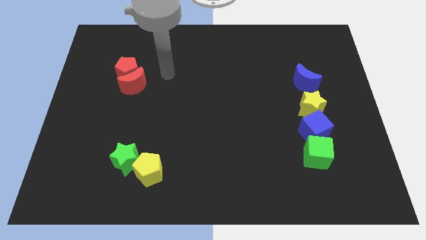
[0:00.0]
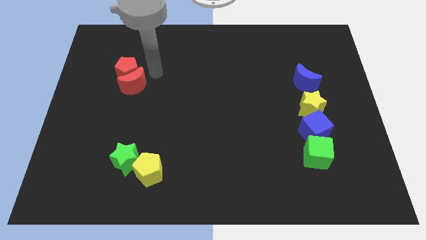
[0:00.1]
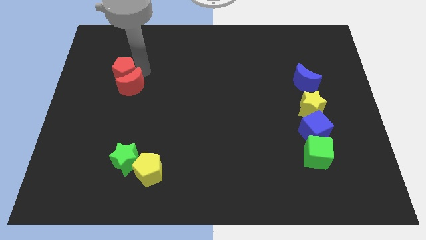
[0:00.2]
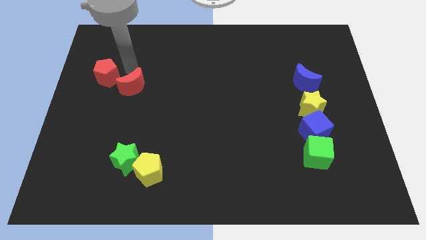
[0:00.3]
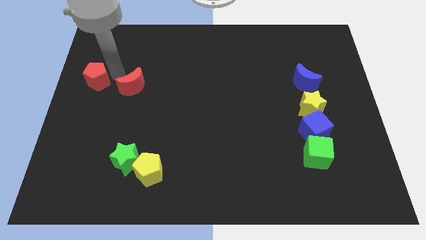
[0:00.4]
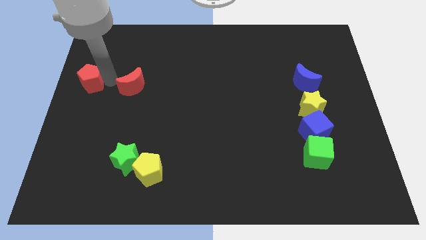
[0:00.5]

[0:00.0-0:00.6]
move the red moon away from the red pentagon

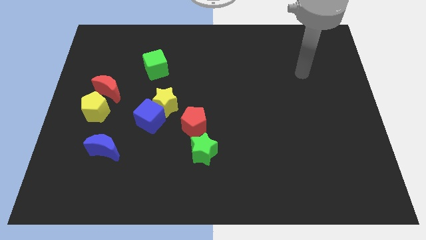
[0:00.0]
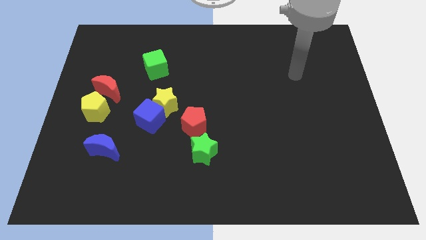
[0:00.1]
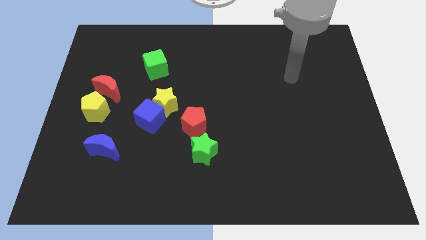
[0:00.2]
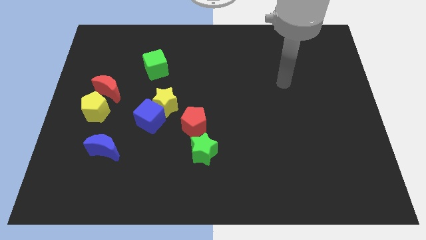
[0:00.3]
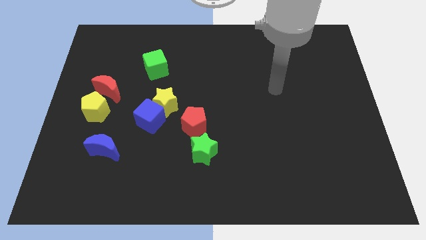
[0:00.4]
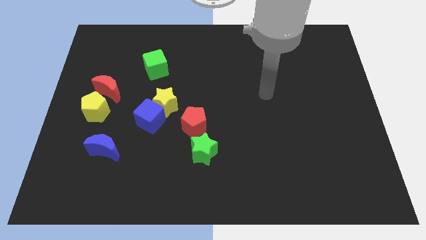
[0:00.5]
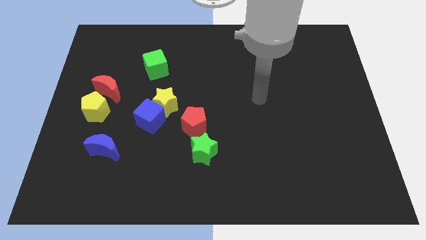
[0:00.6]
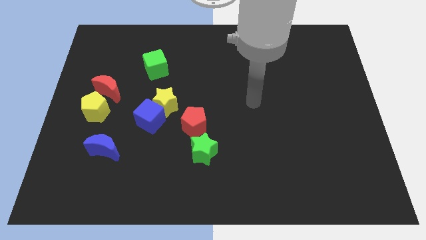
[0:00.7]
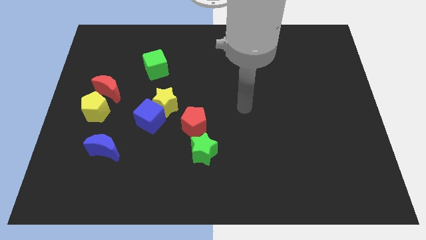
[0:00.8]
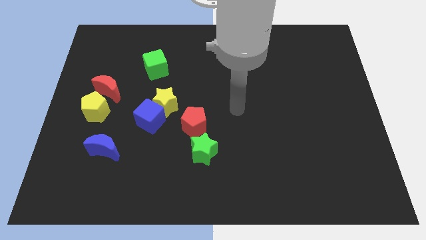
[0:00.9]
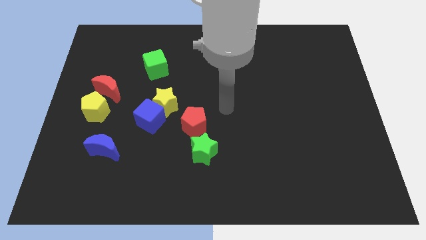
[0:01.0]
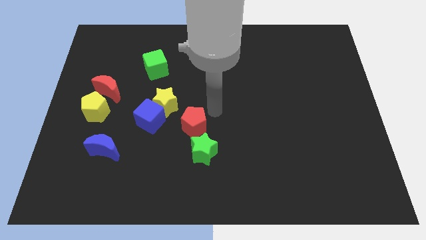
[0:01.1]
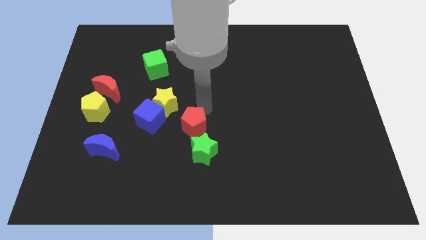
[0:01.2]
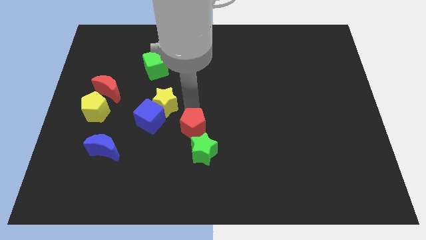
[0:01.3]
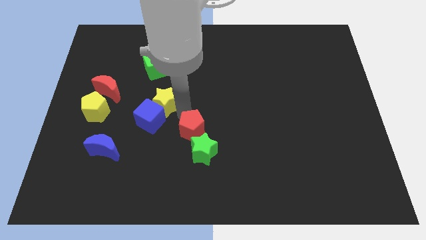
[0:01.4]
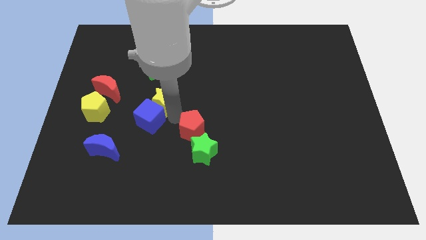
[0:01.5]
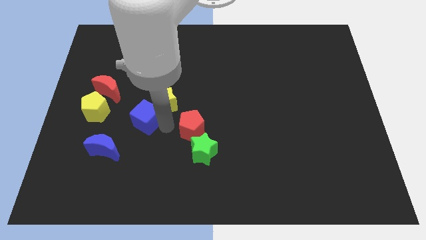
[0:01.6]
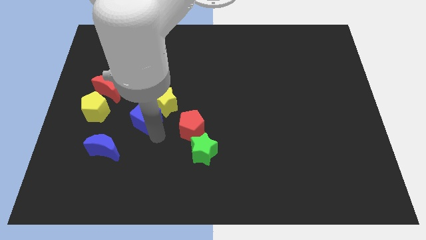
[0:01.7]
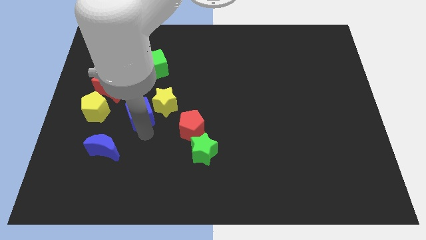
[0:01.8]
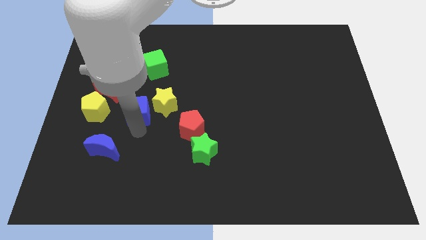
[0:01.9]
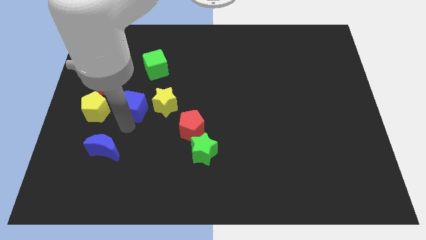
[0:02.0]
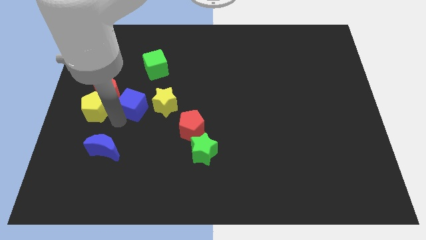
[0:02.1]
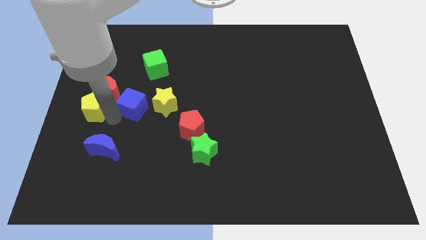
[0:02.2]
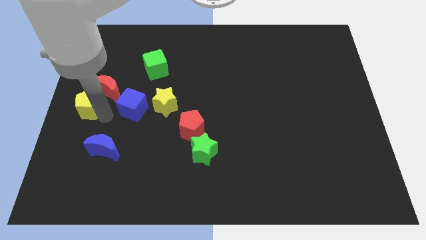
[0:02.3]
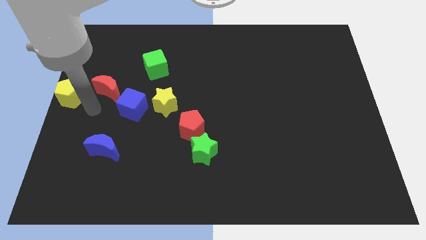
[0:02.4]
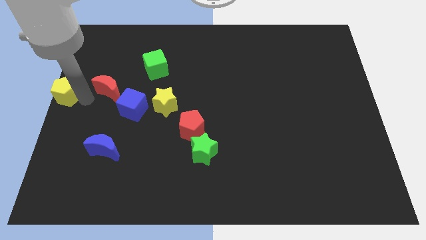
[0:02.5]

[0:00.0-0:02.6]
separate the red moon from the yellow pentagon

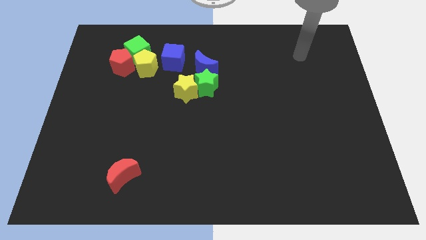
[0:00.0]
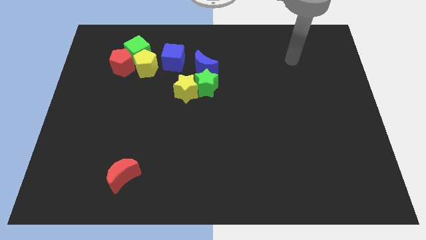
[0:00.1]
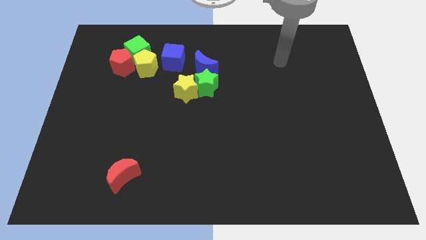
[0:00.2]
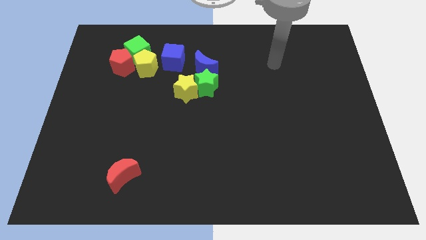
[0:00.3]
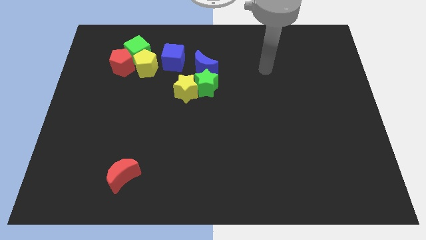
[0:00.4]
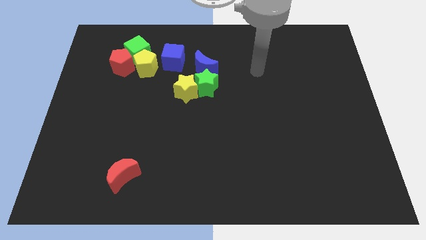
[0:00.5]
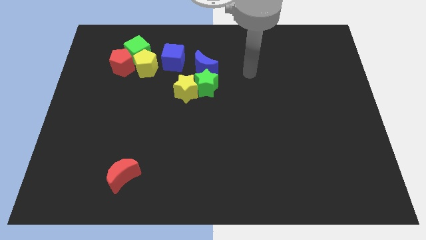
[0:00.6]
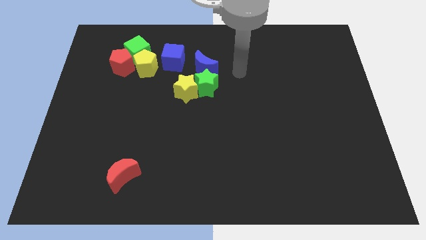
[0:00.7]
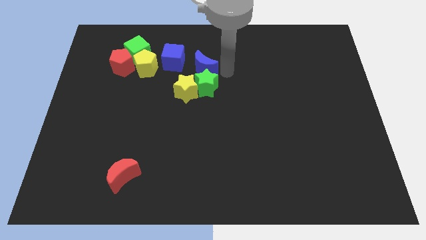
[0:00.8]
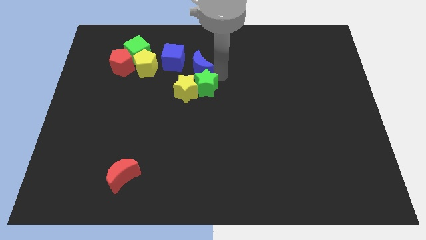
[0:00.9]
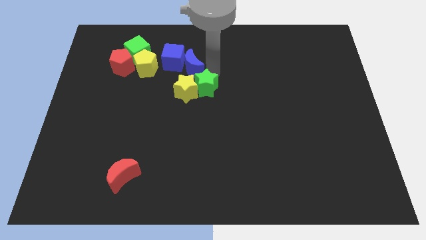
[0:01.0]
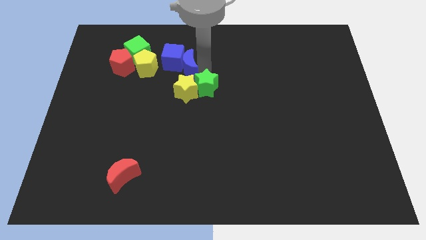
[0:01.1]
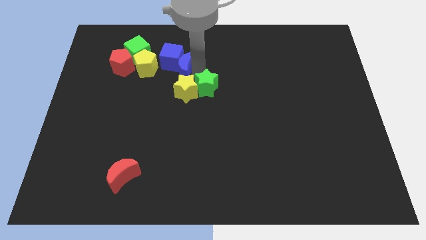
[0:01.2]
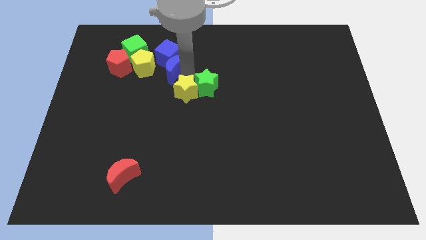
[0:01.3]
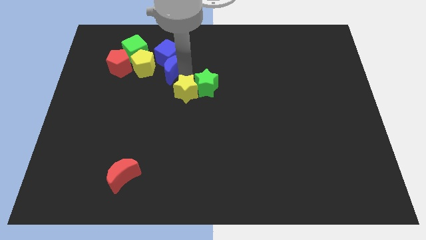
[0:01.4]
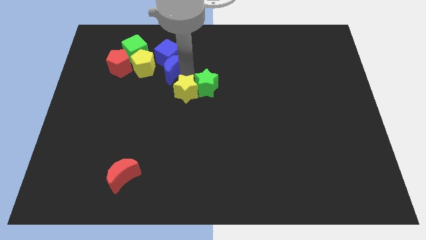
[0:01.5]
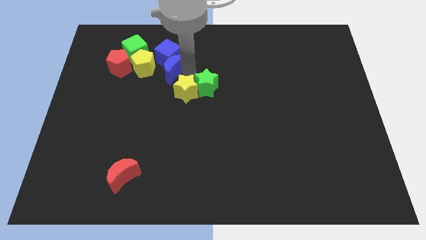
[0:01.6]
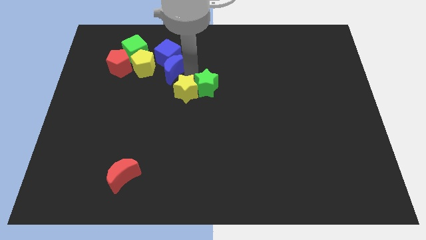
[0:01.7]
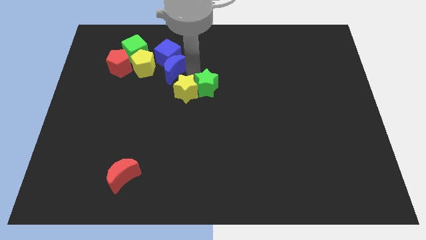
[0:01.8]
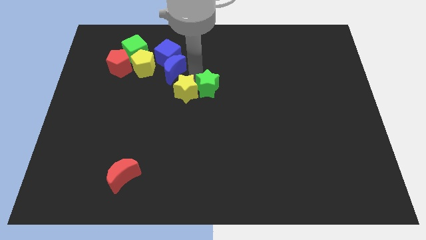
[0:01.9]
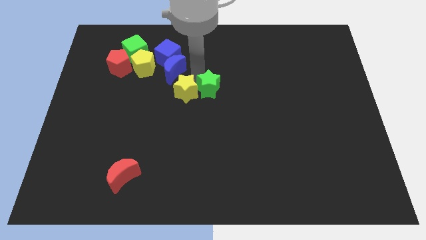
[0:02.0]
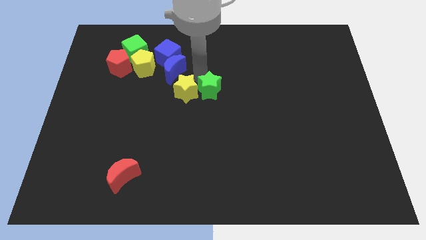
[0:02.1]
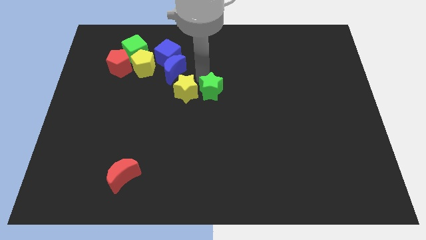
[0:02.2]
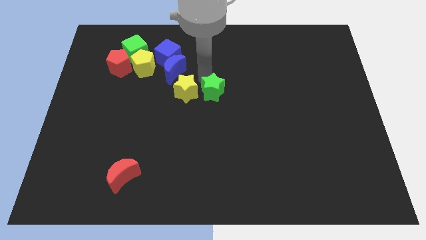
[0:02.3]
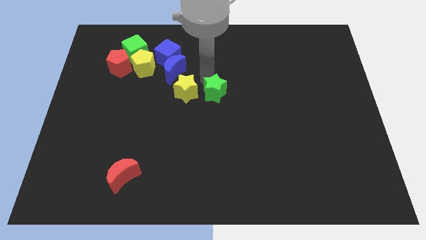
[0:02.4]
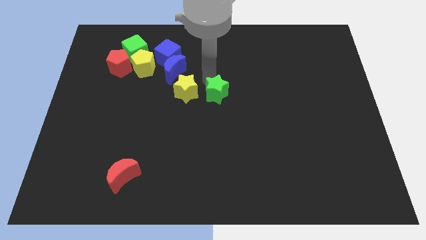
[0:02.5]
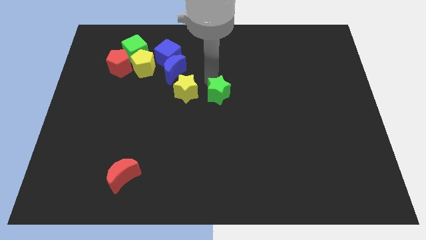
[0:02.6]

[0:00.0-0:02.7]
pull the green star apart from the yellow star and blue moon

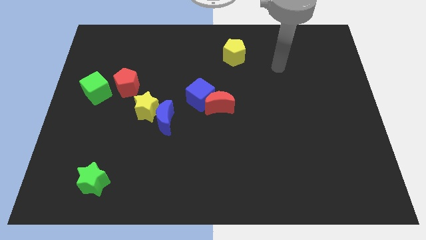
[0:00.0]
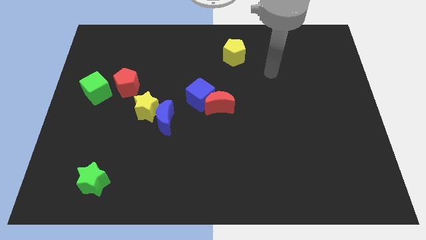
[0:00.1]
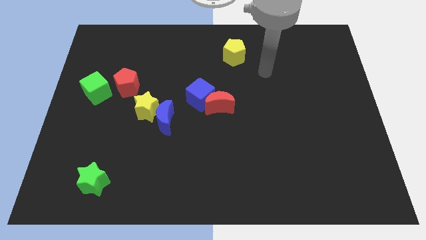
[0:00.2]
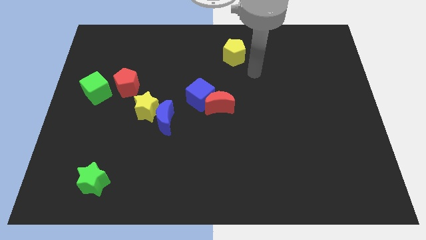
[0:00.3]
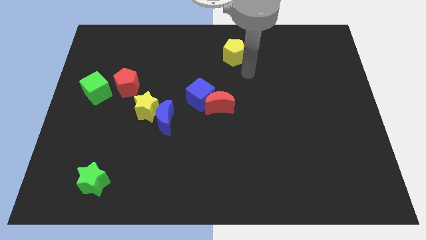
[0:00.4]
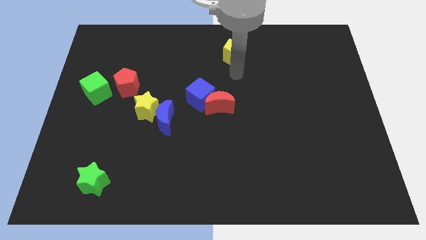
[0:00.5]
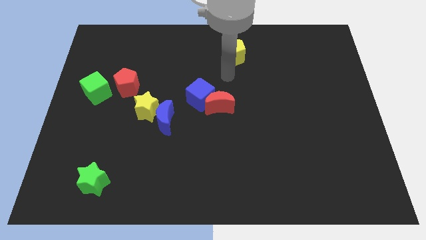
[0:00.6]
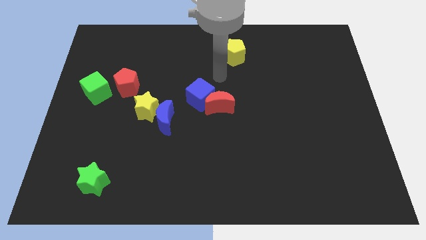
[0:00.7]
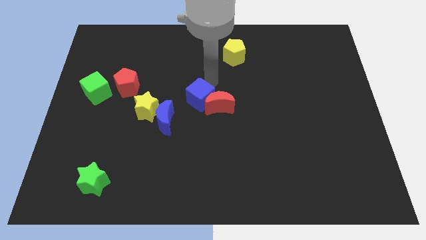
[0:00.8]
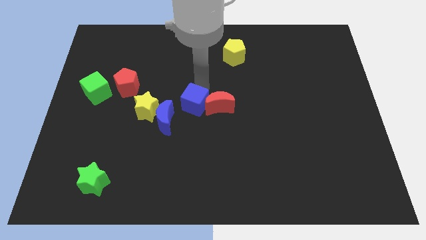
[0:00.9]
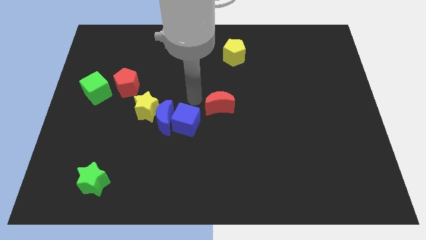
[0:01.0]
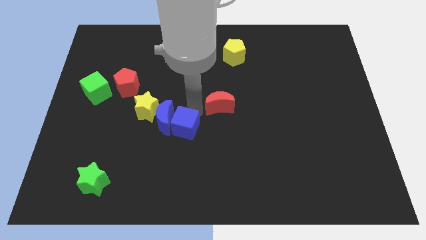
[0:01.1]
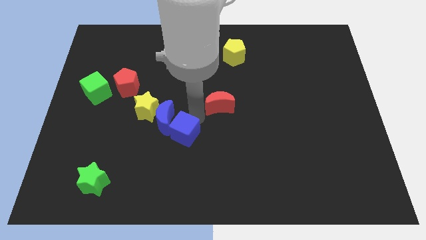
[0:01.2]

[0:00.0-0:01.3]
move the red moon away from the blue cube

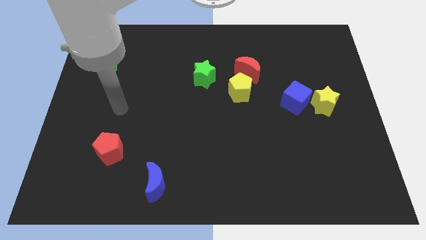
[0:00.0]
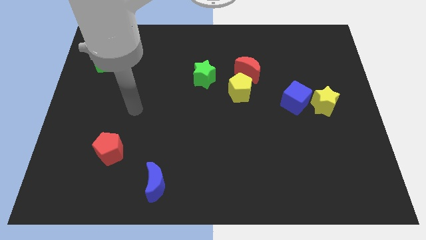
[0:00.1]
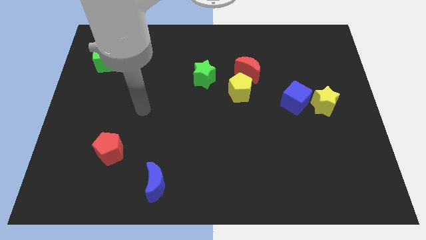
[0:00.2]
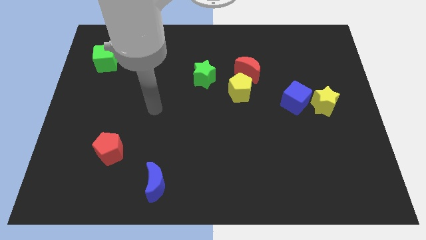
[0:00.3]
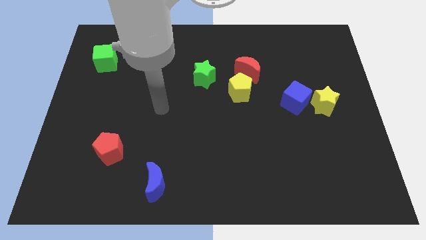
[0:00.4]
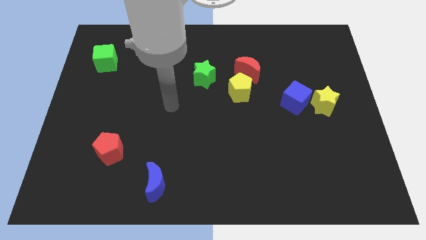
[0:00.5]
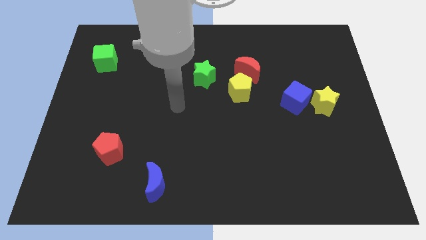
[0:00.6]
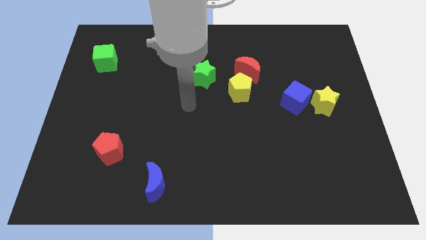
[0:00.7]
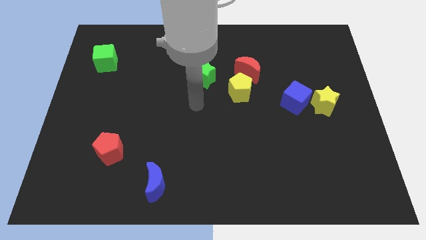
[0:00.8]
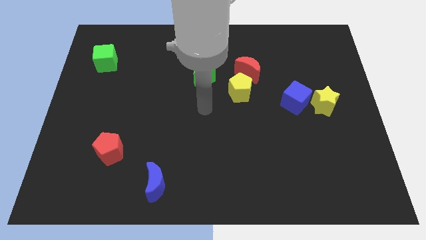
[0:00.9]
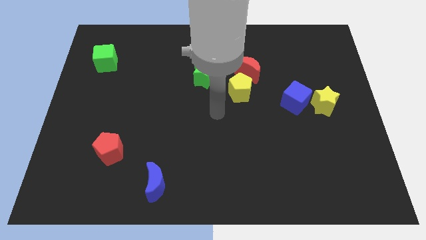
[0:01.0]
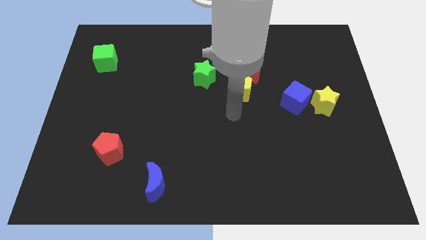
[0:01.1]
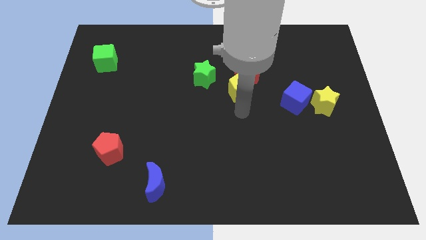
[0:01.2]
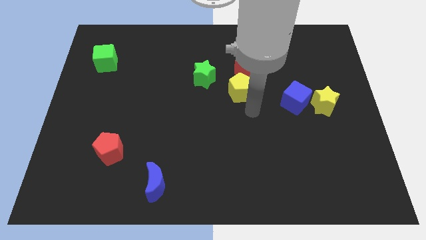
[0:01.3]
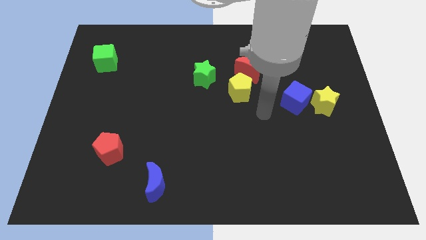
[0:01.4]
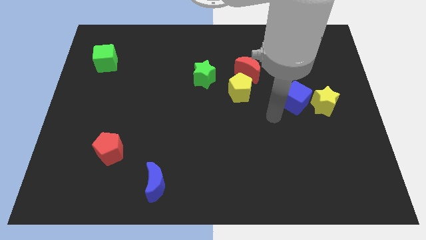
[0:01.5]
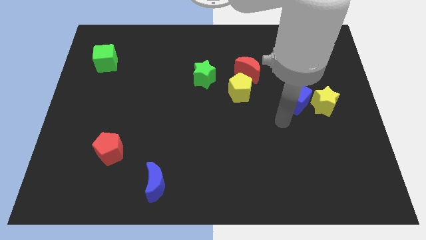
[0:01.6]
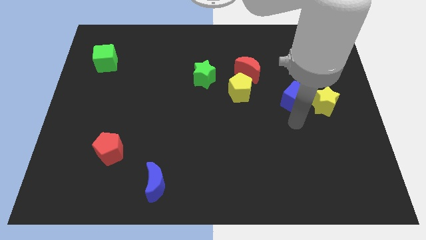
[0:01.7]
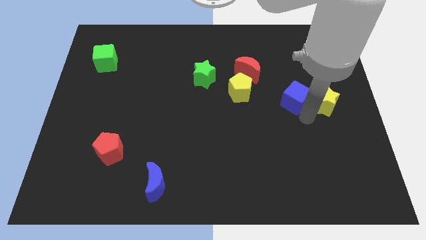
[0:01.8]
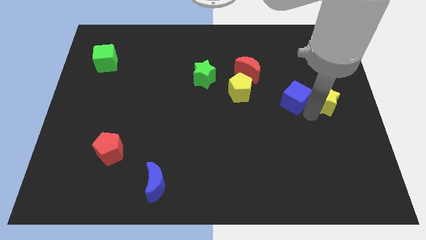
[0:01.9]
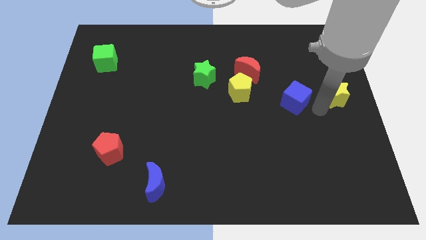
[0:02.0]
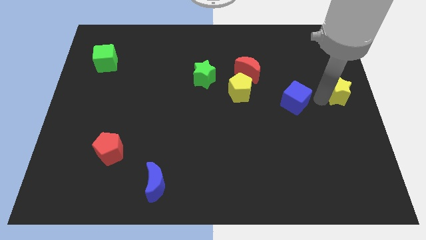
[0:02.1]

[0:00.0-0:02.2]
pull the blue cube apart from the yellow star
